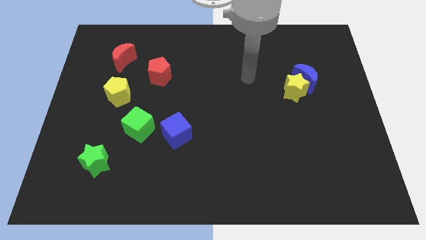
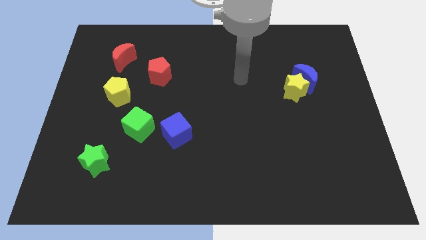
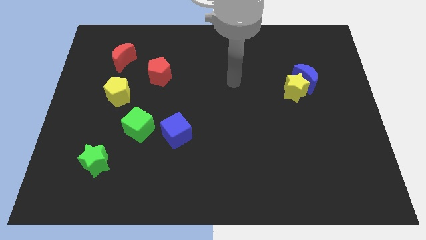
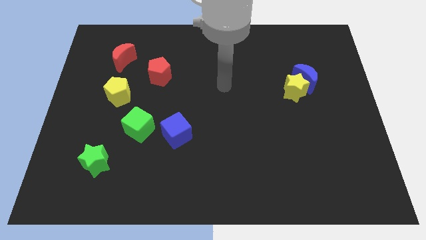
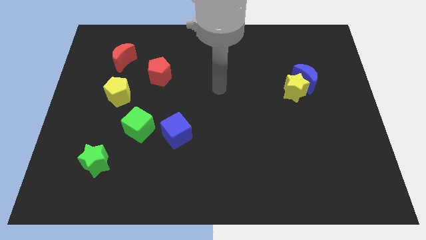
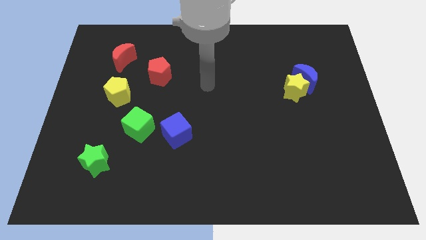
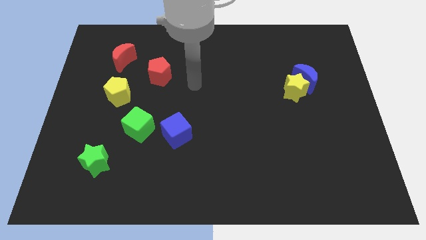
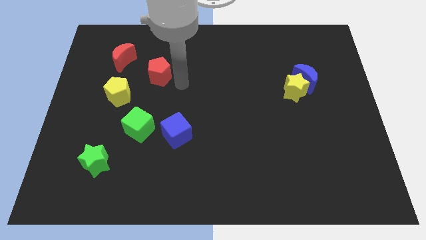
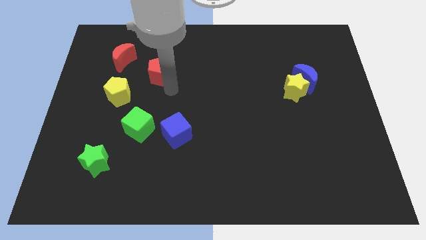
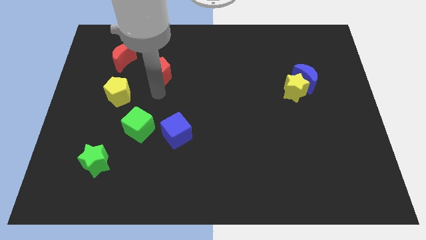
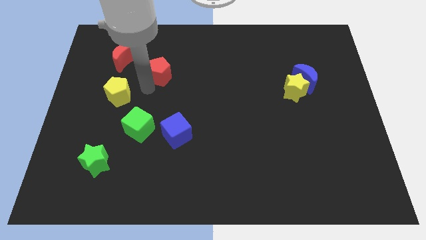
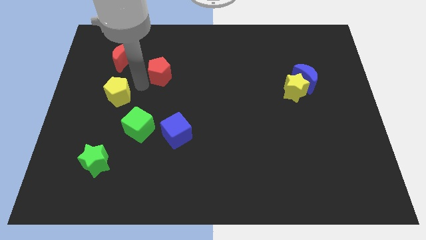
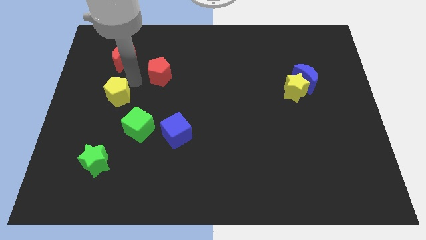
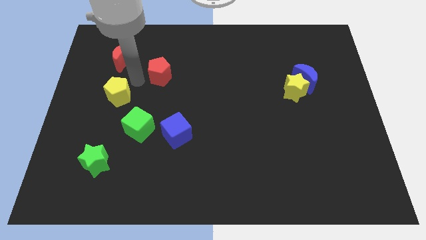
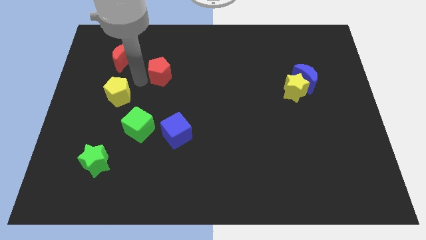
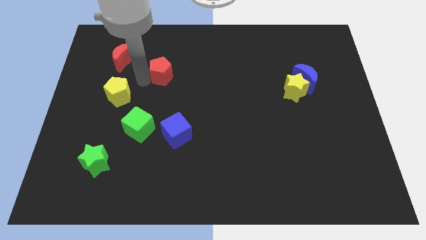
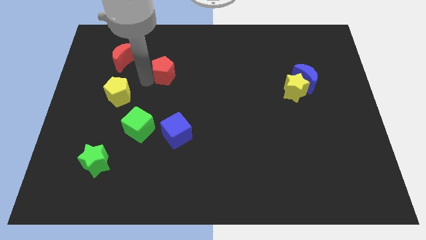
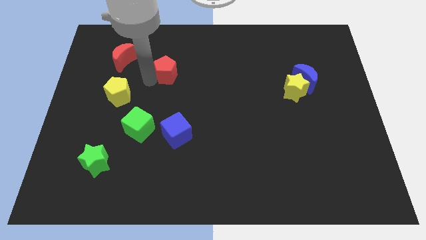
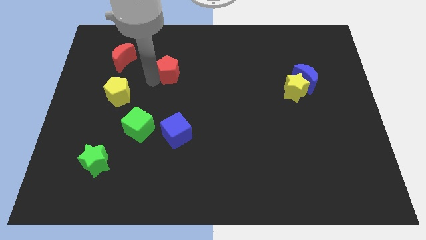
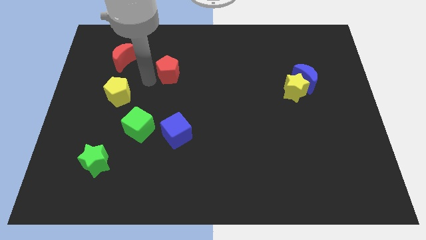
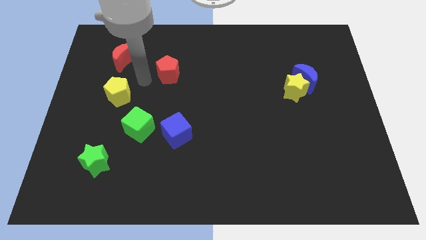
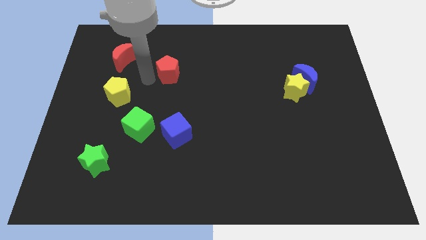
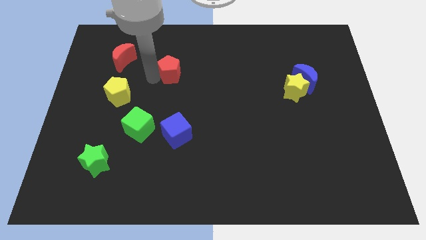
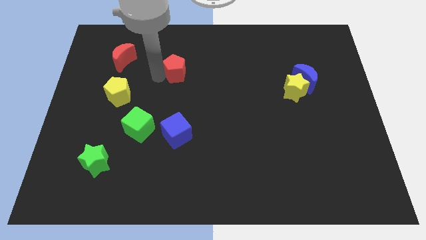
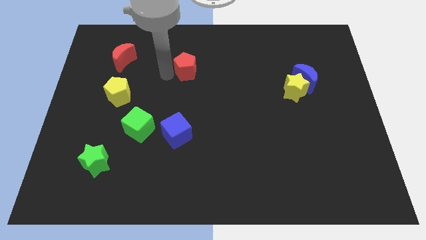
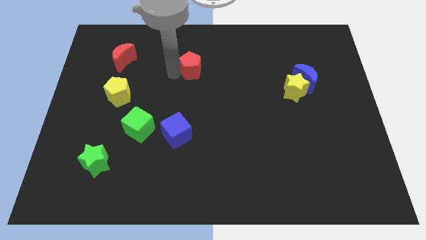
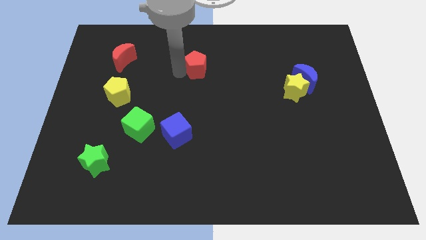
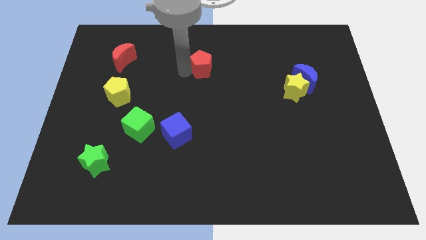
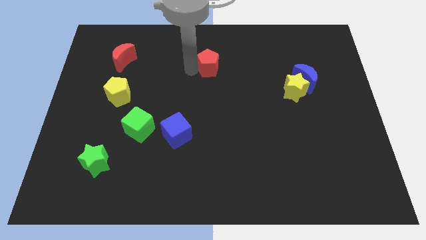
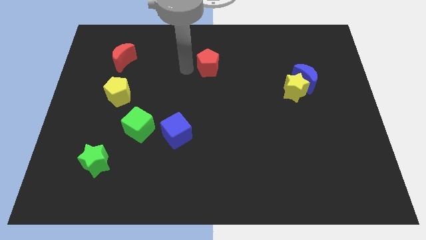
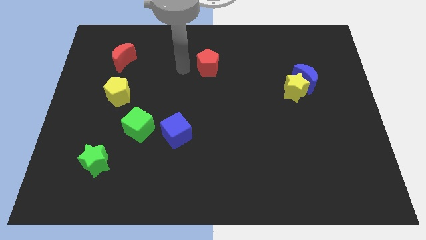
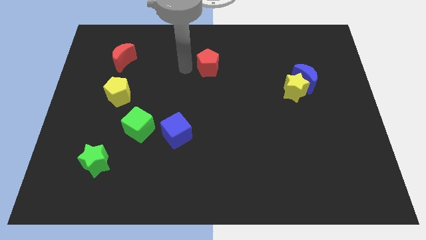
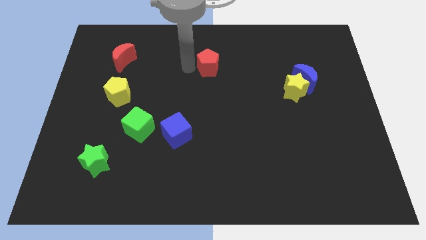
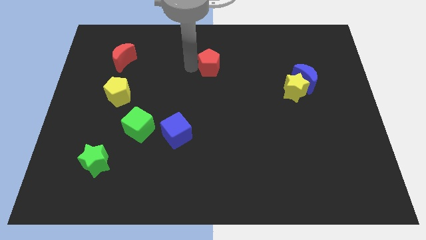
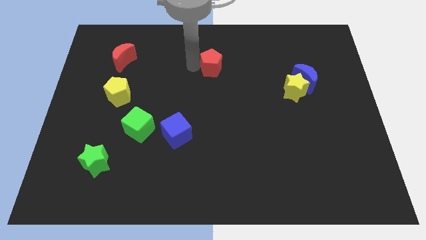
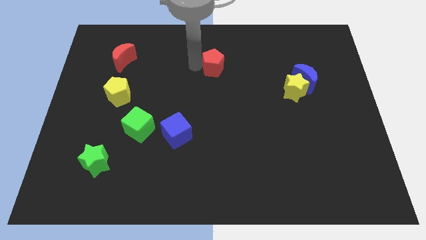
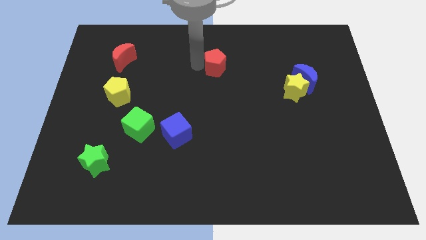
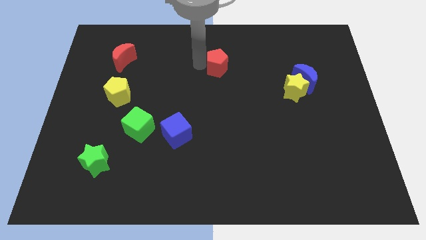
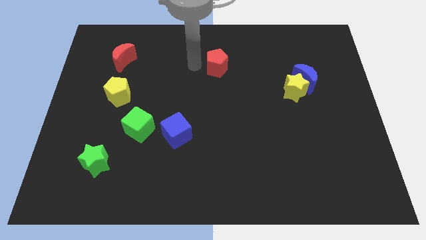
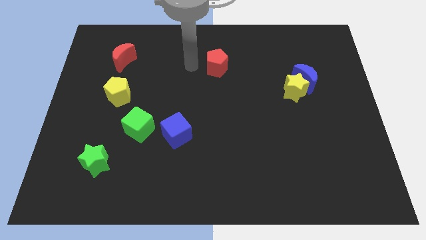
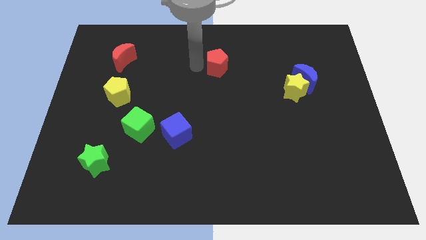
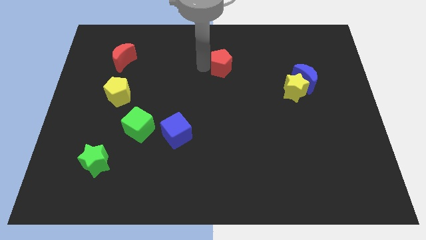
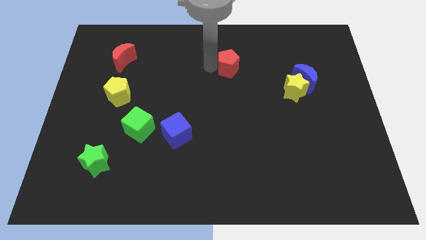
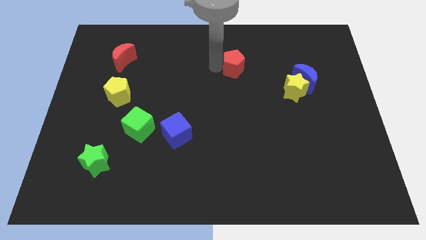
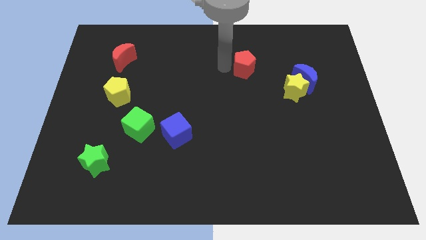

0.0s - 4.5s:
slide the red pentagon right

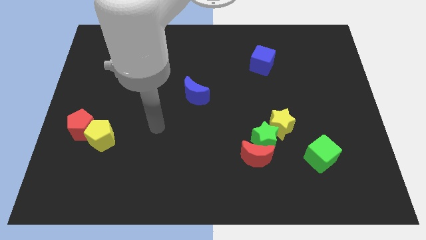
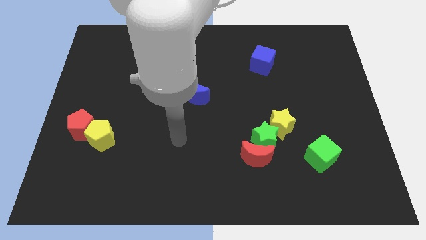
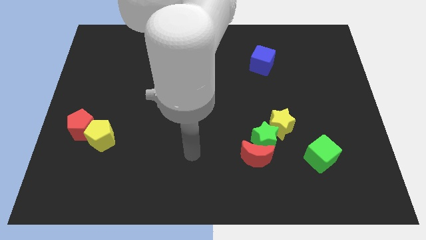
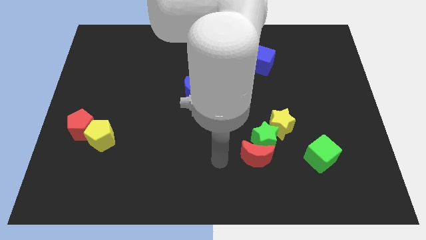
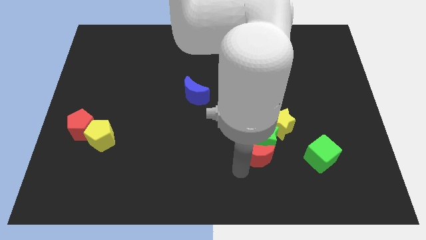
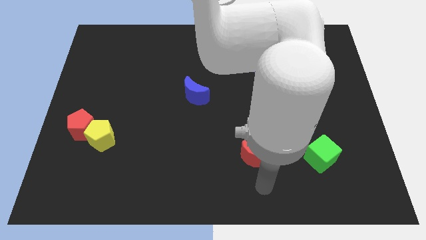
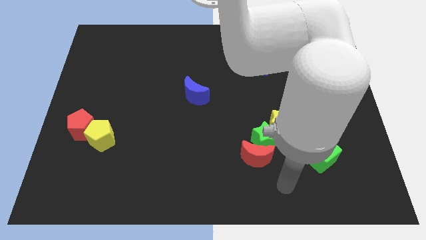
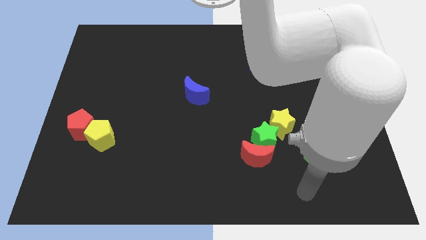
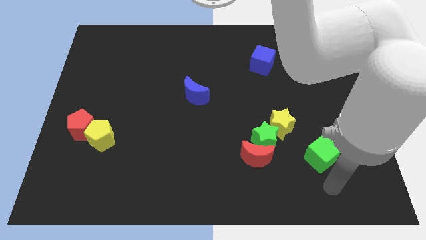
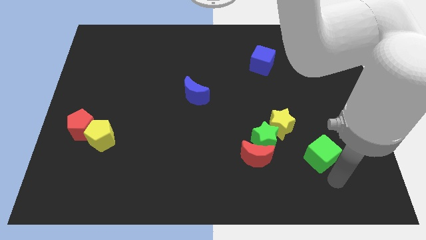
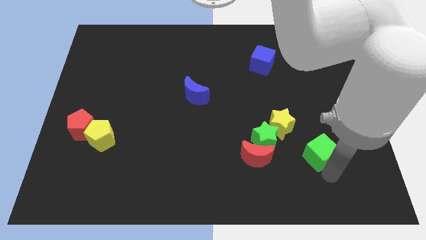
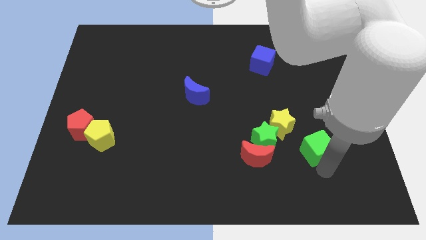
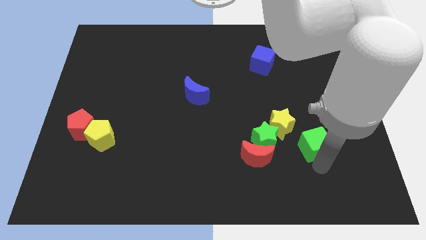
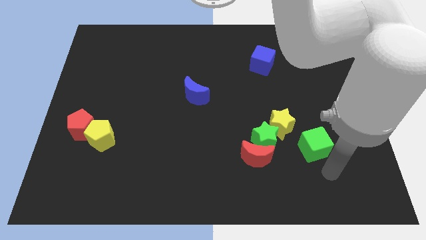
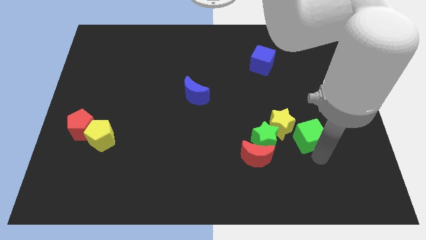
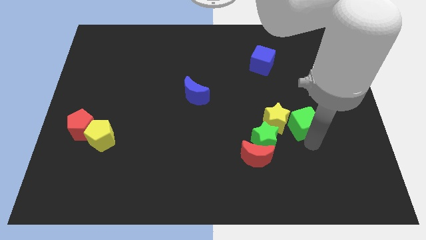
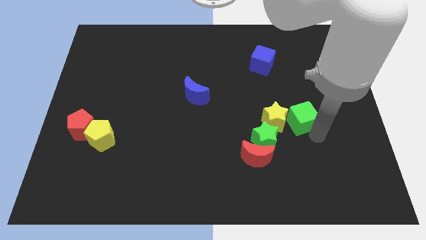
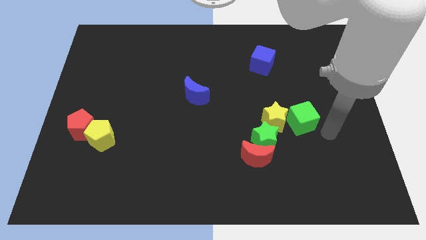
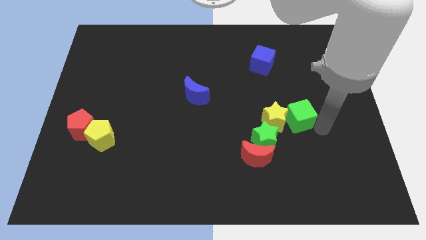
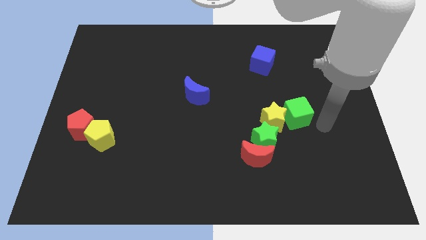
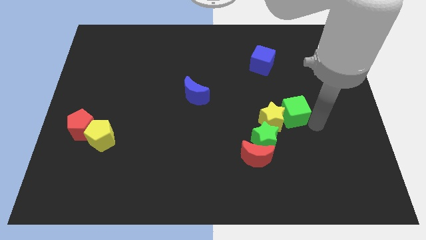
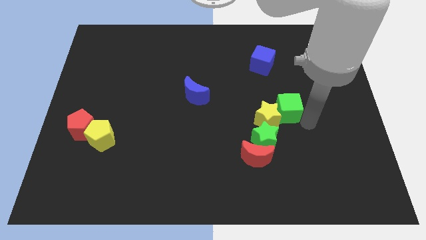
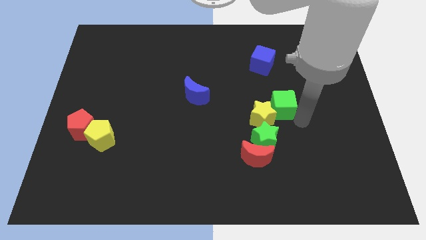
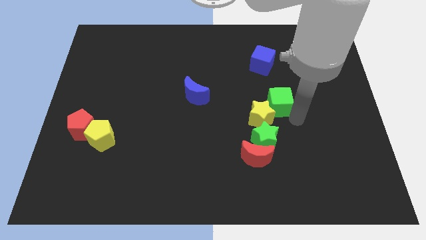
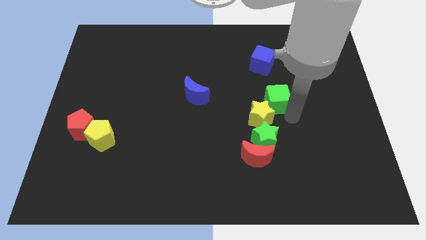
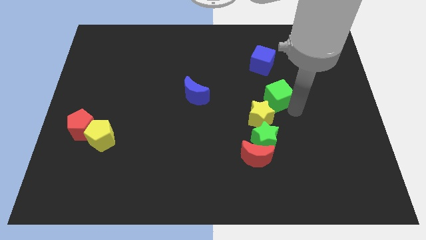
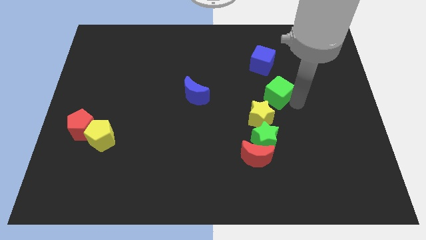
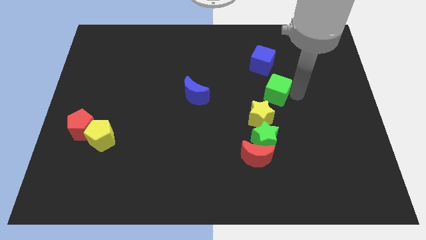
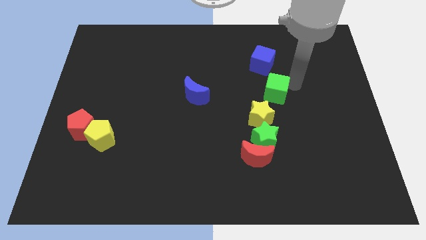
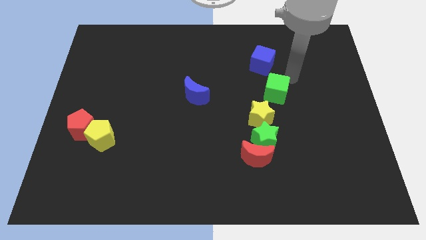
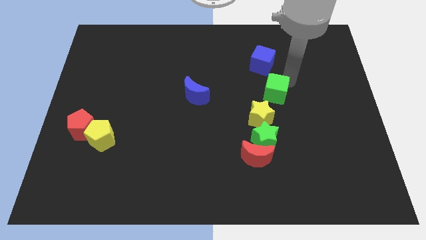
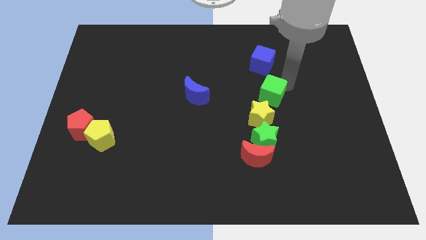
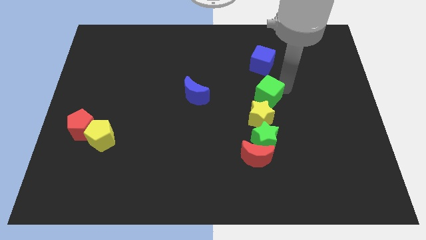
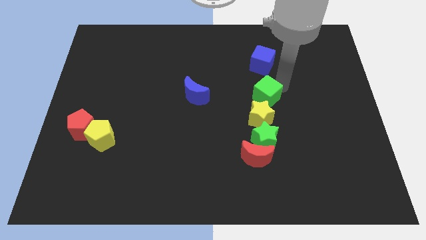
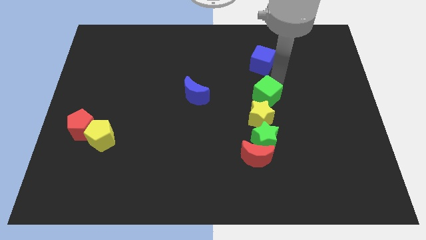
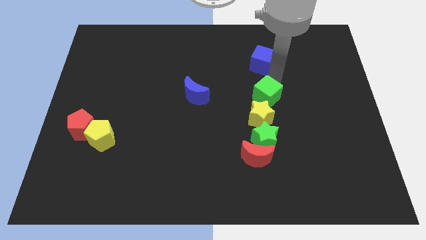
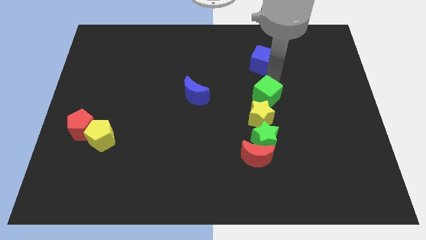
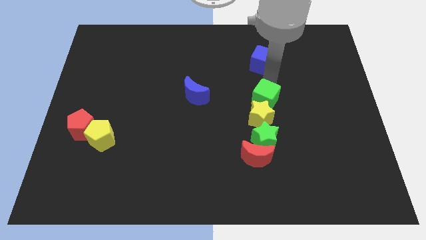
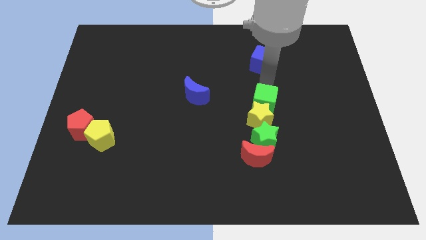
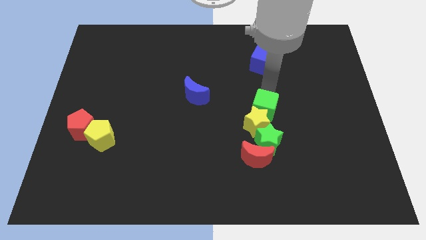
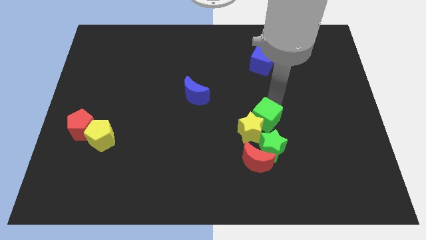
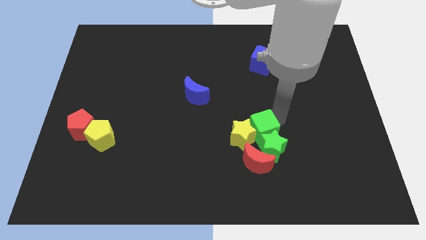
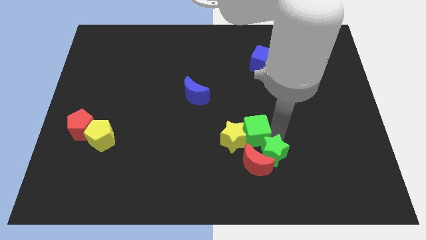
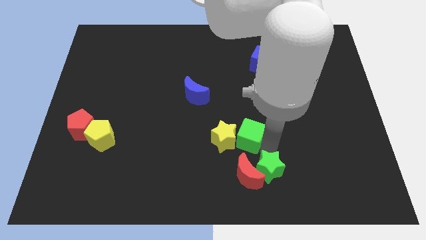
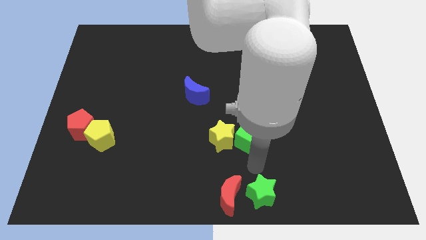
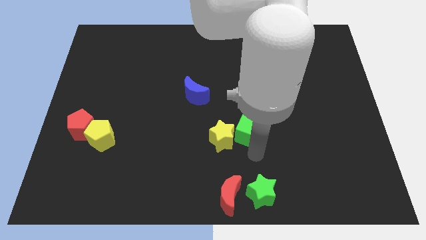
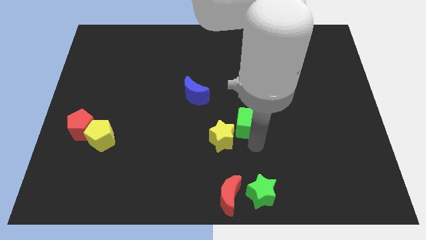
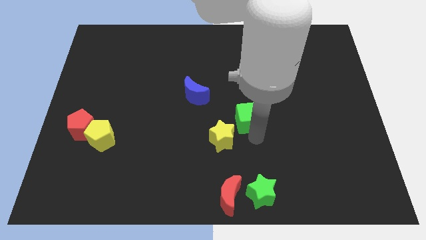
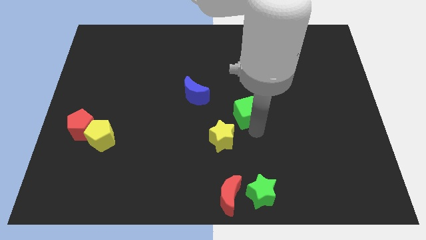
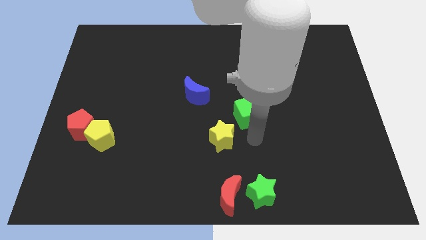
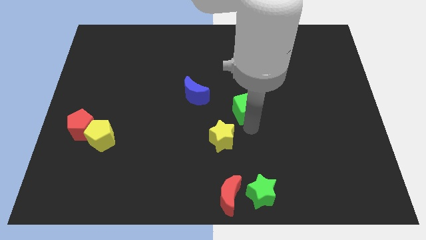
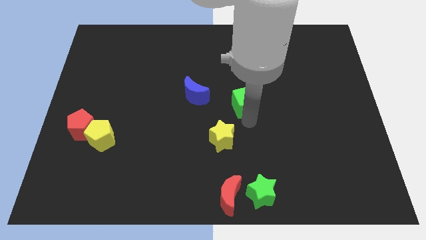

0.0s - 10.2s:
push the green cube upwards and left
